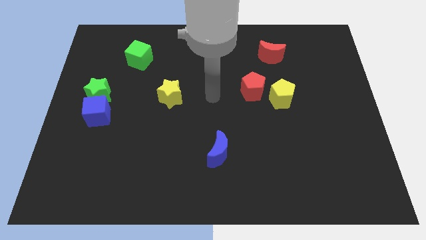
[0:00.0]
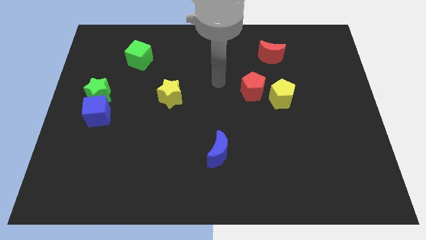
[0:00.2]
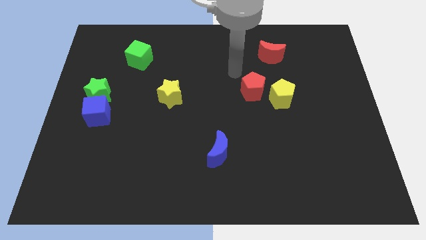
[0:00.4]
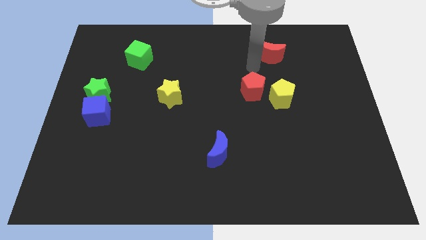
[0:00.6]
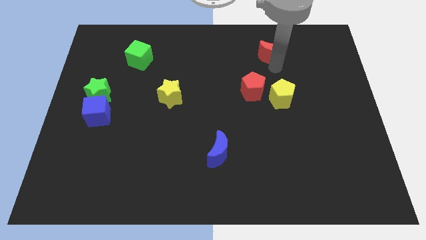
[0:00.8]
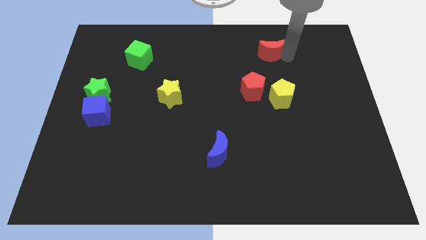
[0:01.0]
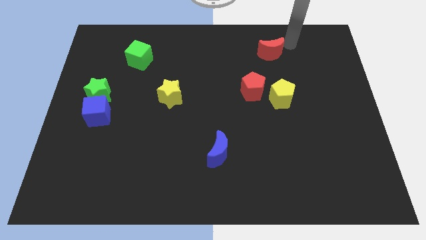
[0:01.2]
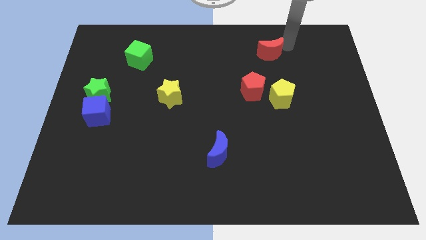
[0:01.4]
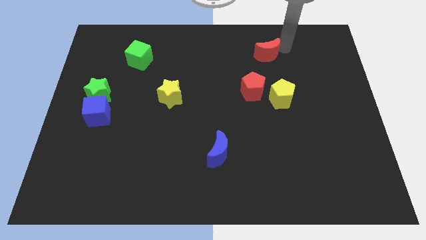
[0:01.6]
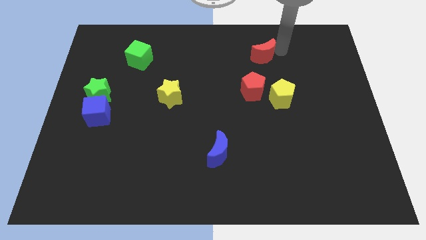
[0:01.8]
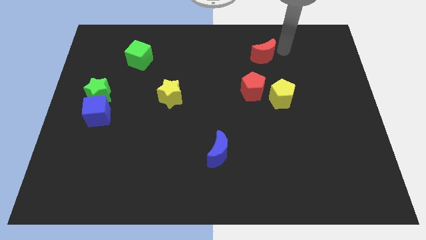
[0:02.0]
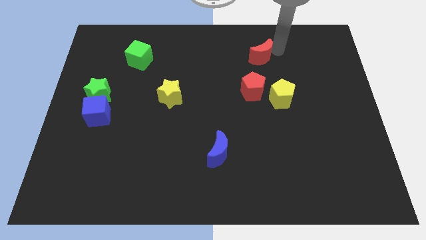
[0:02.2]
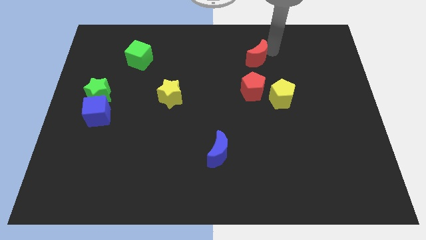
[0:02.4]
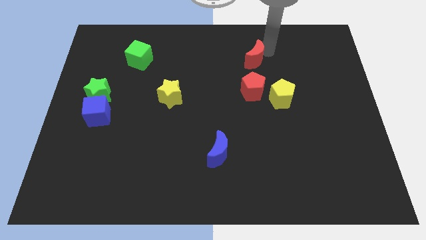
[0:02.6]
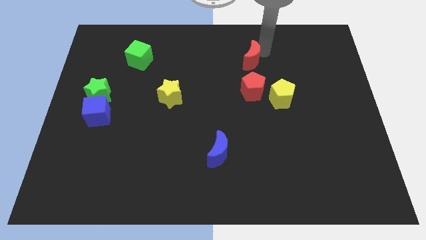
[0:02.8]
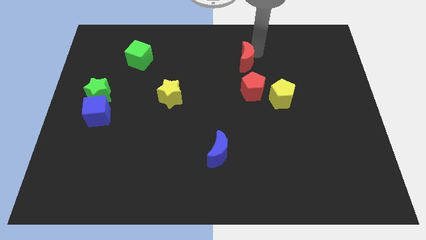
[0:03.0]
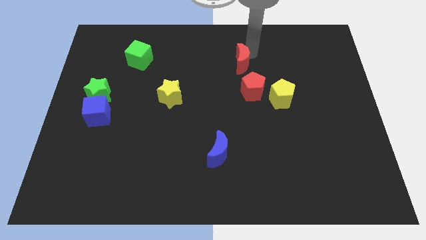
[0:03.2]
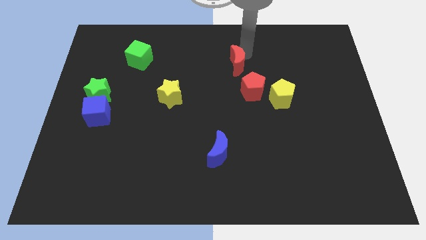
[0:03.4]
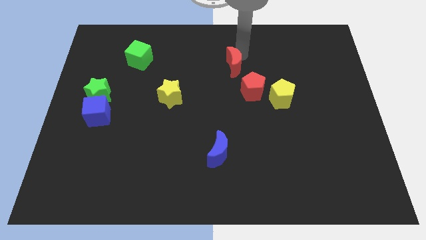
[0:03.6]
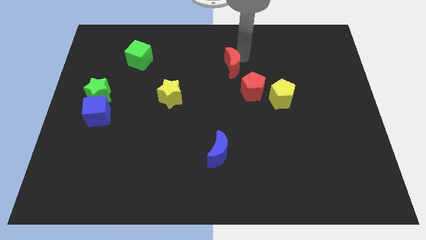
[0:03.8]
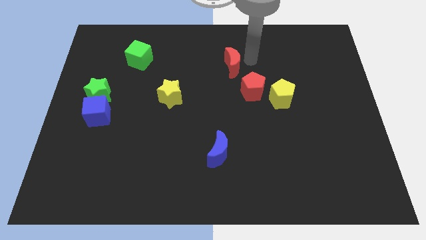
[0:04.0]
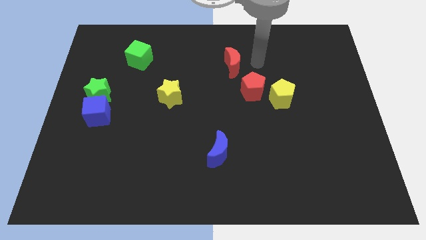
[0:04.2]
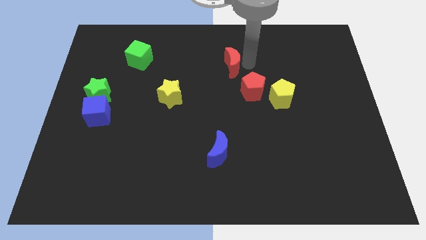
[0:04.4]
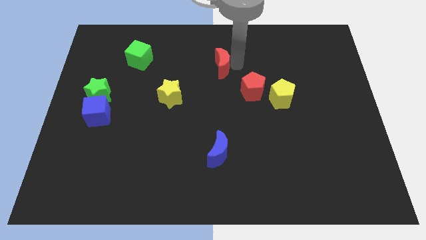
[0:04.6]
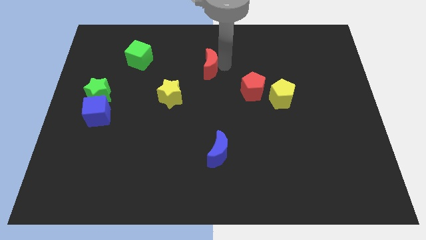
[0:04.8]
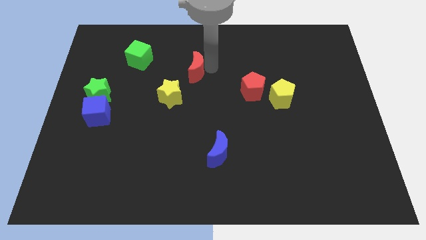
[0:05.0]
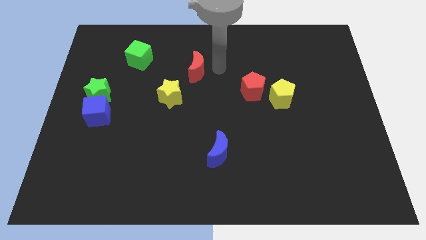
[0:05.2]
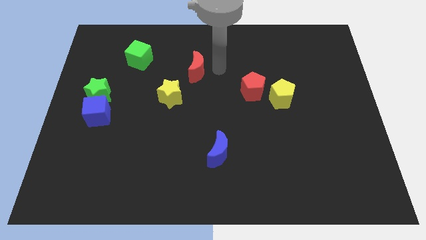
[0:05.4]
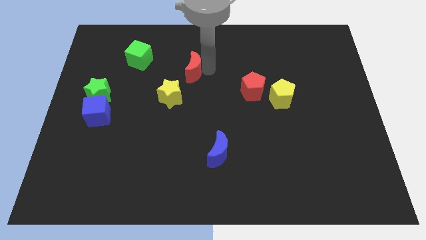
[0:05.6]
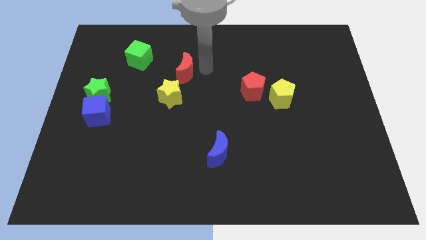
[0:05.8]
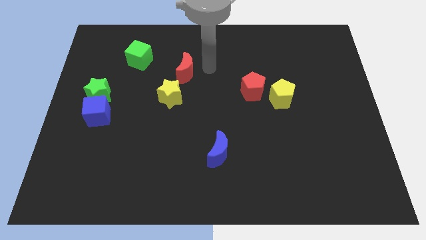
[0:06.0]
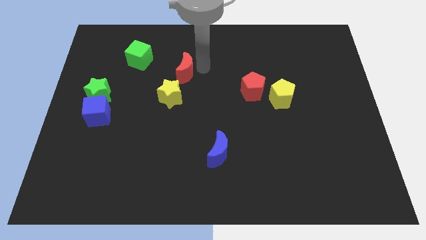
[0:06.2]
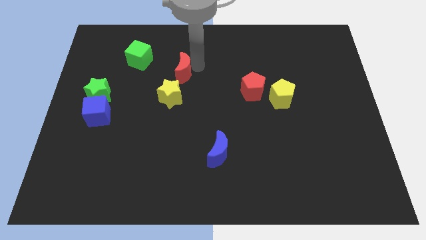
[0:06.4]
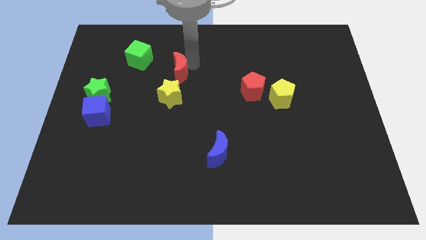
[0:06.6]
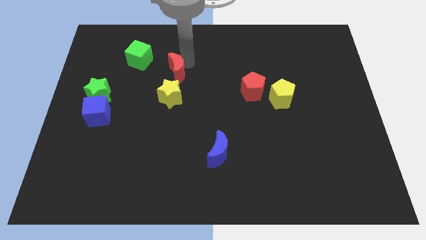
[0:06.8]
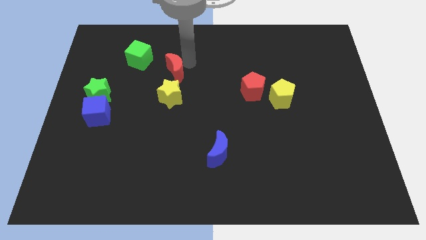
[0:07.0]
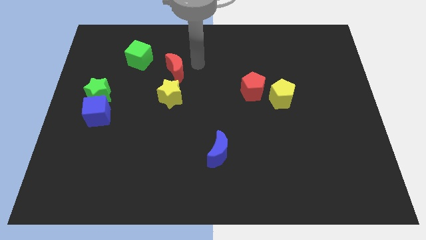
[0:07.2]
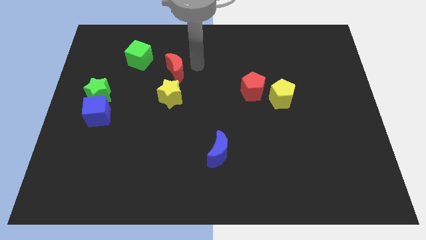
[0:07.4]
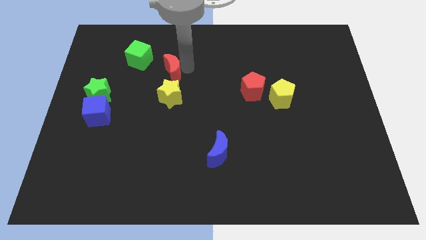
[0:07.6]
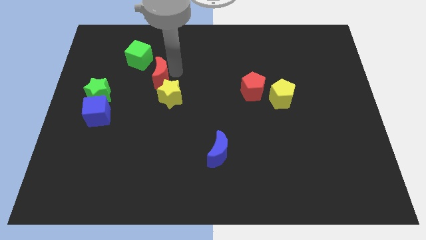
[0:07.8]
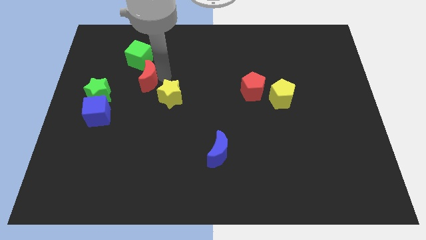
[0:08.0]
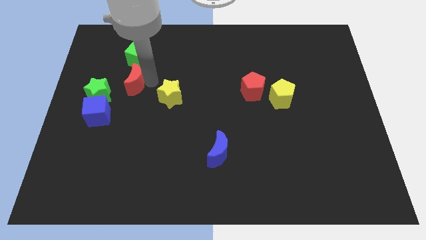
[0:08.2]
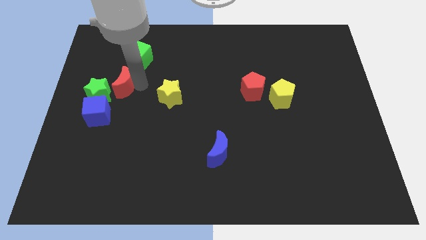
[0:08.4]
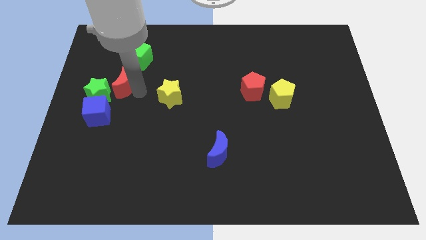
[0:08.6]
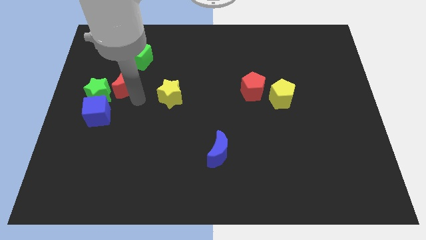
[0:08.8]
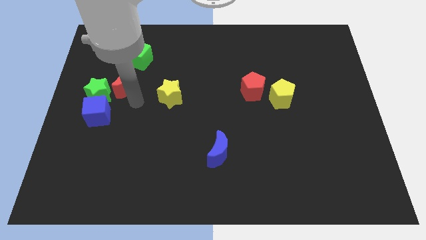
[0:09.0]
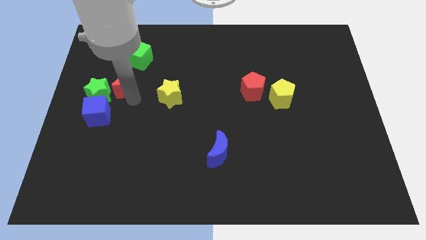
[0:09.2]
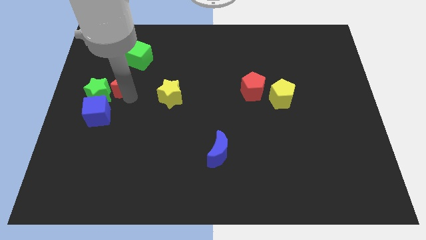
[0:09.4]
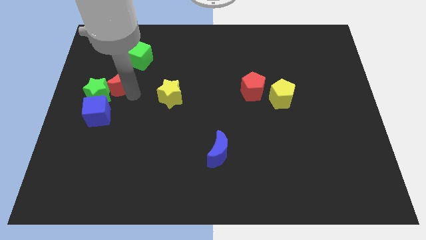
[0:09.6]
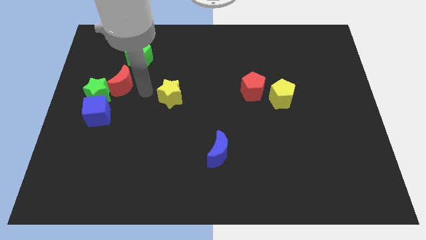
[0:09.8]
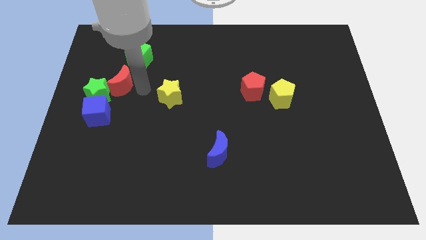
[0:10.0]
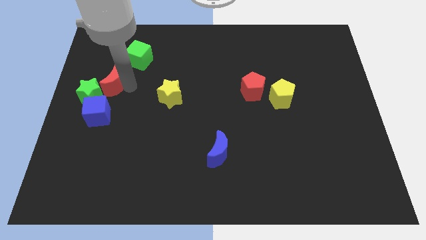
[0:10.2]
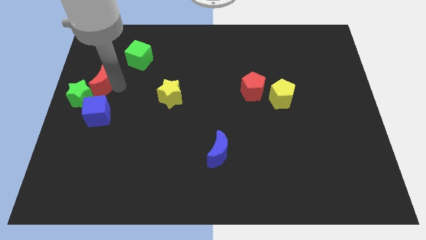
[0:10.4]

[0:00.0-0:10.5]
put the red moon to the left side of the board

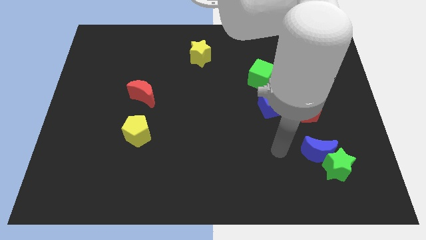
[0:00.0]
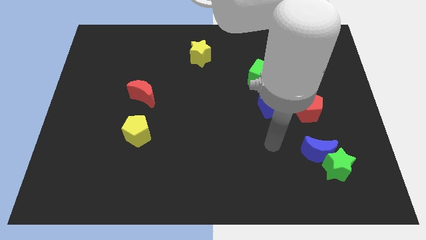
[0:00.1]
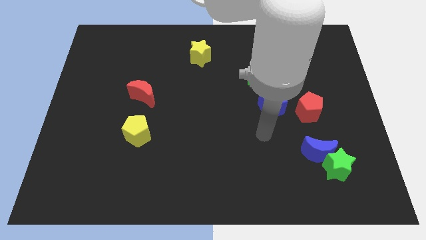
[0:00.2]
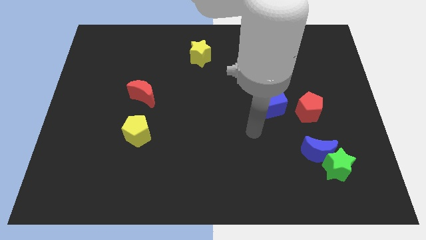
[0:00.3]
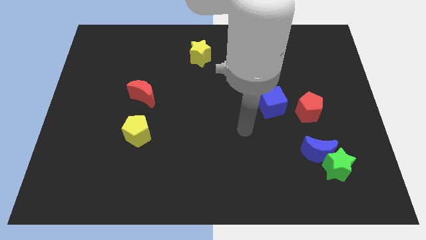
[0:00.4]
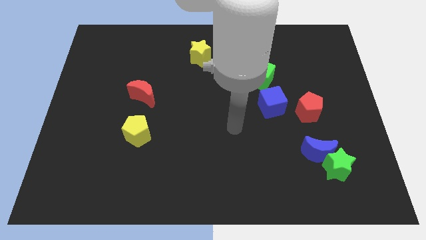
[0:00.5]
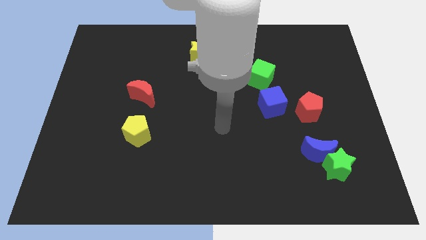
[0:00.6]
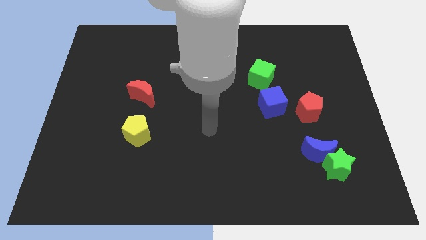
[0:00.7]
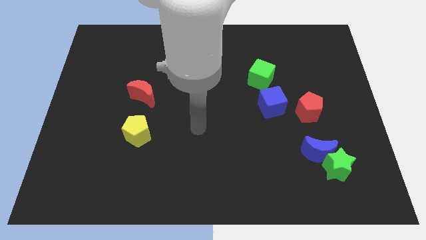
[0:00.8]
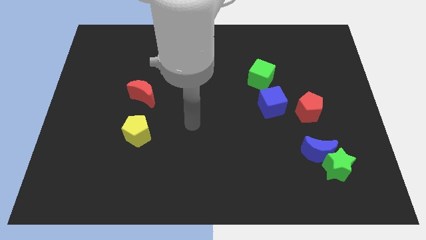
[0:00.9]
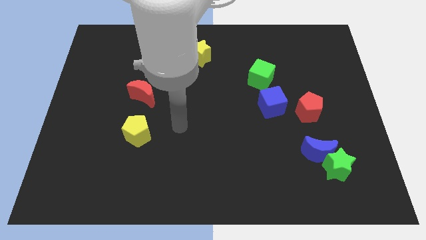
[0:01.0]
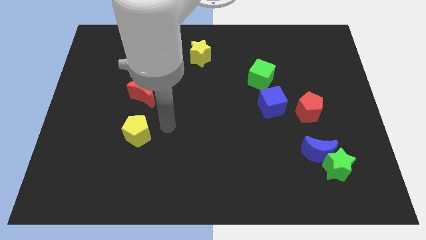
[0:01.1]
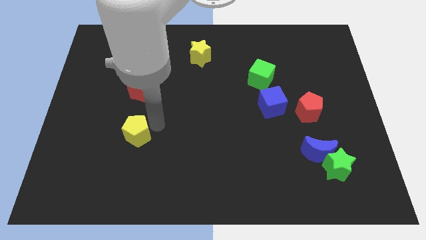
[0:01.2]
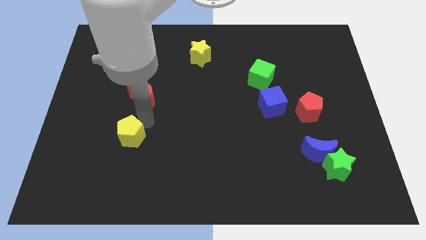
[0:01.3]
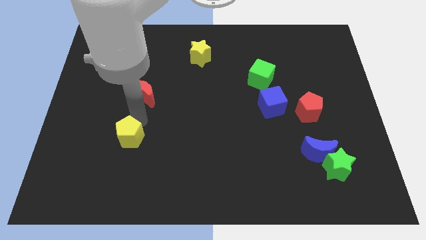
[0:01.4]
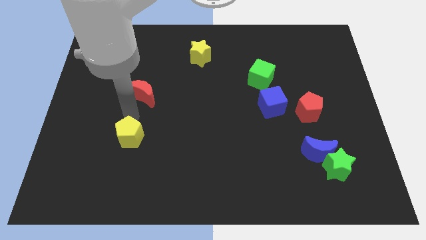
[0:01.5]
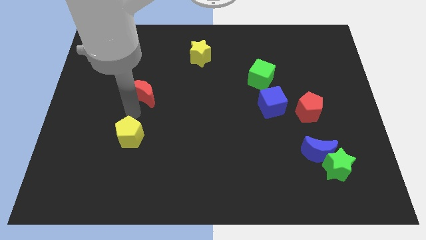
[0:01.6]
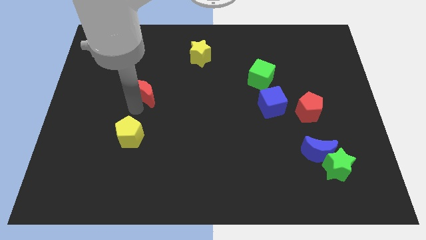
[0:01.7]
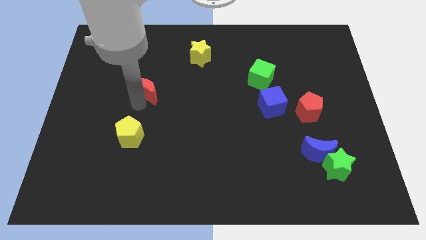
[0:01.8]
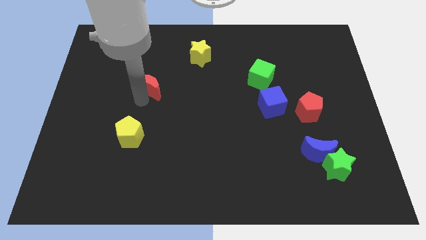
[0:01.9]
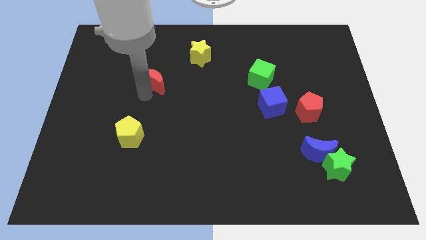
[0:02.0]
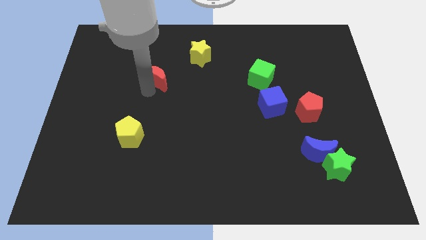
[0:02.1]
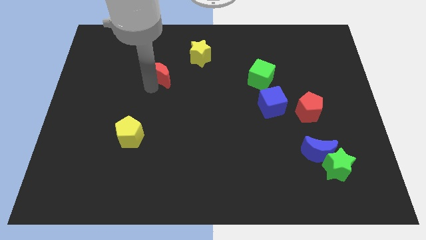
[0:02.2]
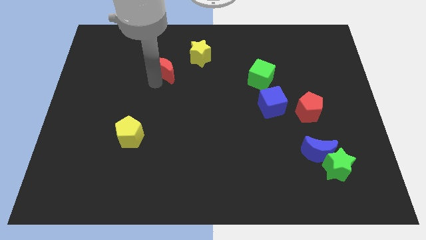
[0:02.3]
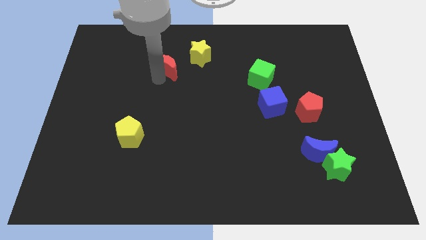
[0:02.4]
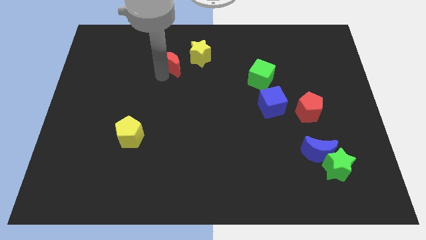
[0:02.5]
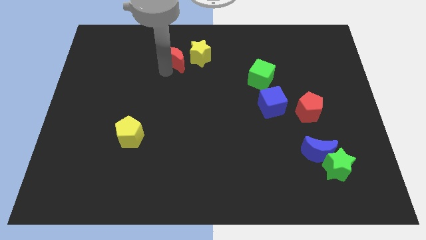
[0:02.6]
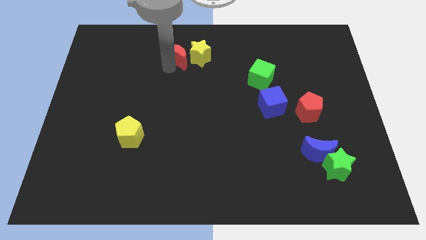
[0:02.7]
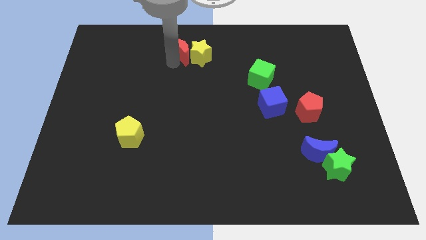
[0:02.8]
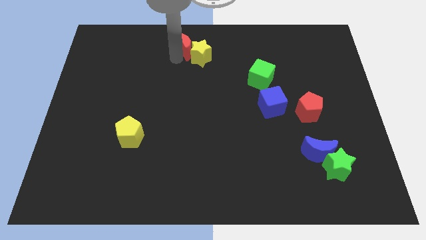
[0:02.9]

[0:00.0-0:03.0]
move the red moon to the top side
